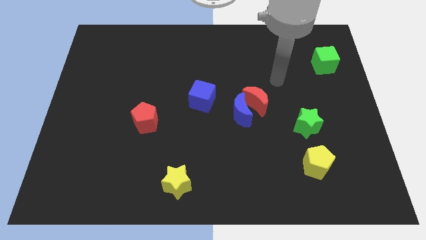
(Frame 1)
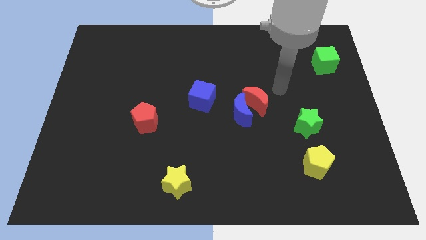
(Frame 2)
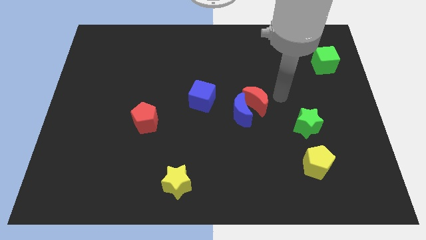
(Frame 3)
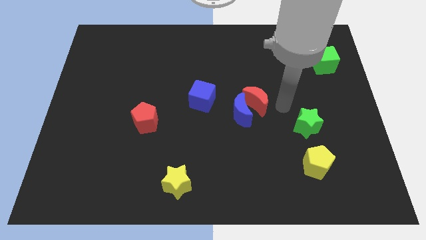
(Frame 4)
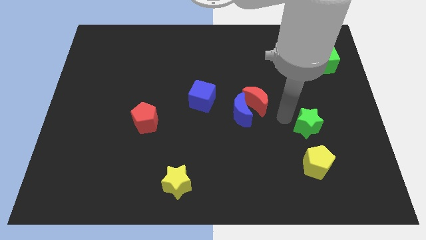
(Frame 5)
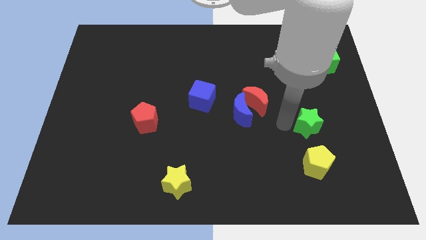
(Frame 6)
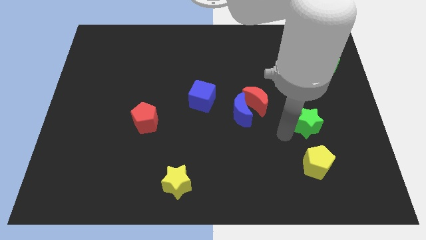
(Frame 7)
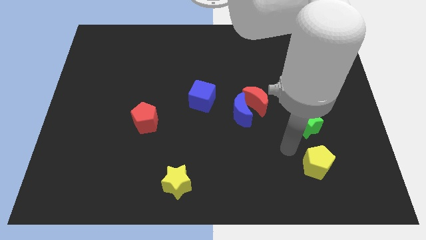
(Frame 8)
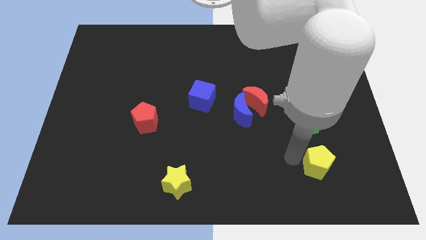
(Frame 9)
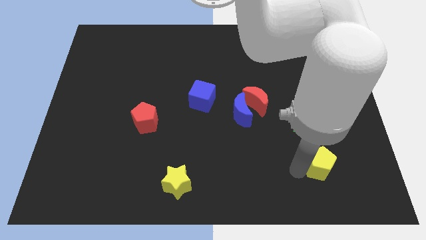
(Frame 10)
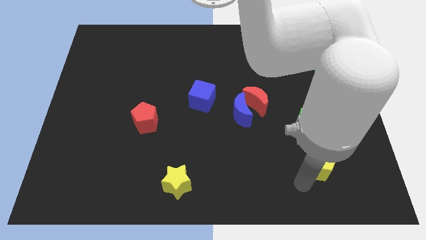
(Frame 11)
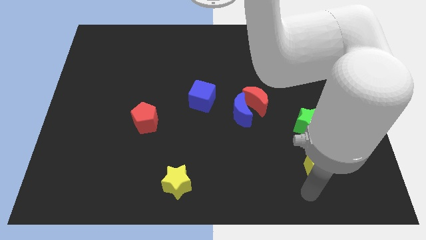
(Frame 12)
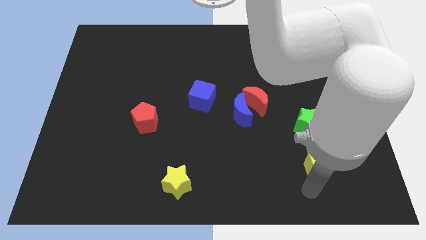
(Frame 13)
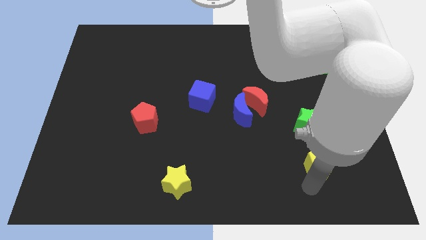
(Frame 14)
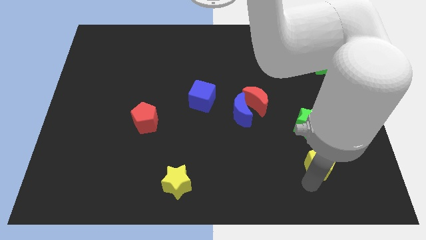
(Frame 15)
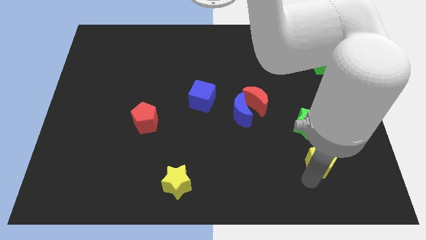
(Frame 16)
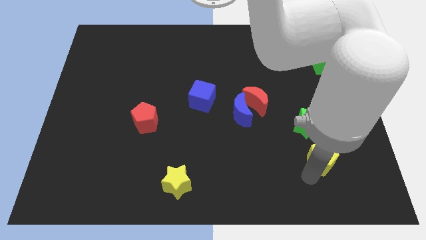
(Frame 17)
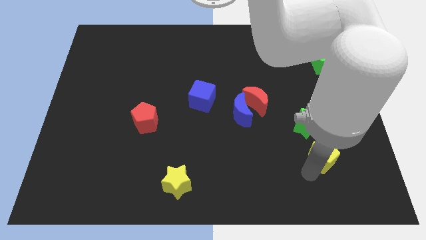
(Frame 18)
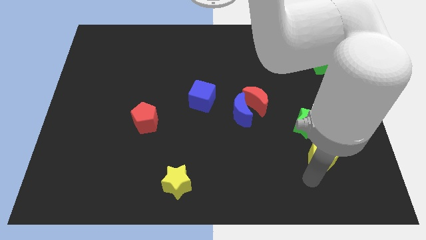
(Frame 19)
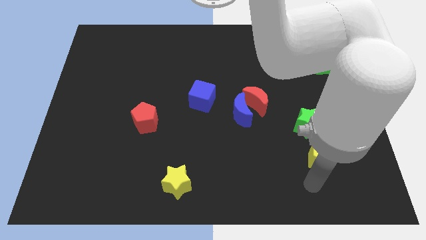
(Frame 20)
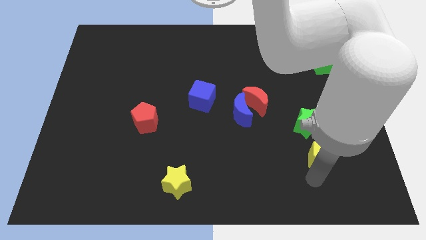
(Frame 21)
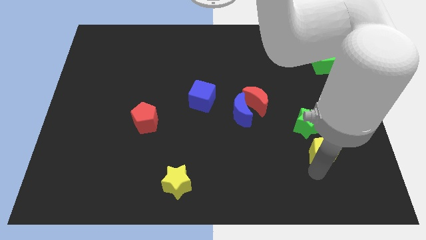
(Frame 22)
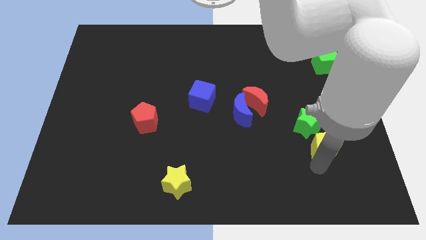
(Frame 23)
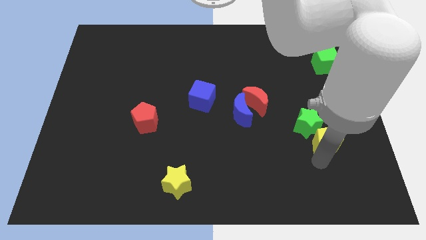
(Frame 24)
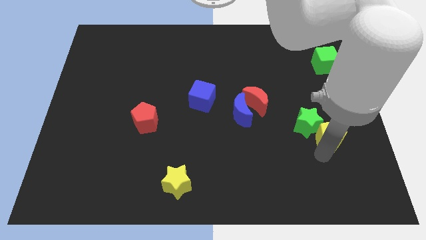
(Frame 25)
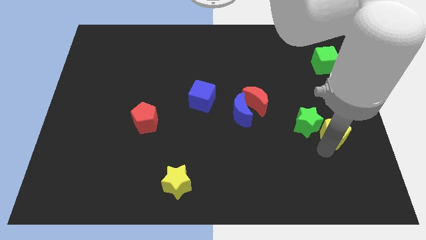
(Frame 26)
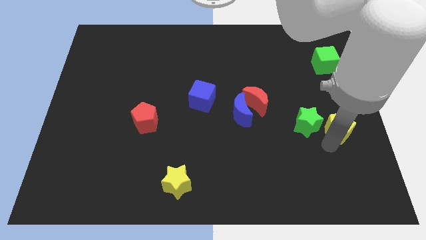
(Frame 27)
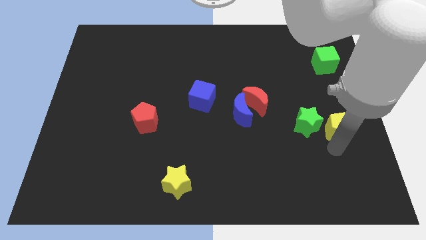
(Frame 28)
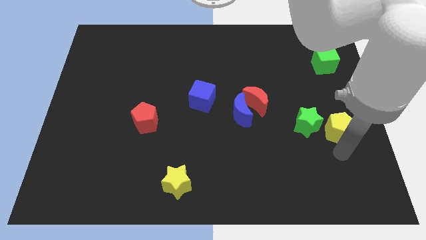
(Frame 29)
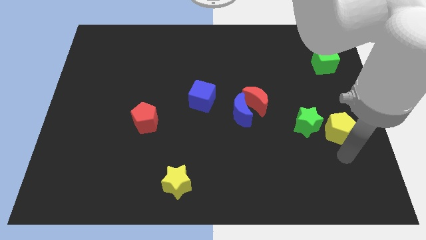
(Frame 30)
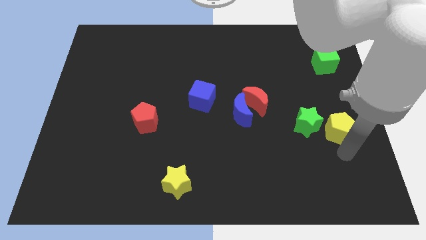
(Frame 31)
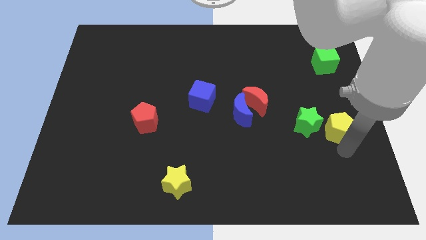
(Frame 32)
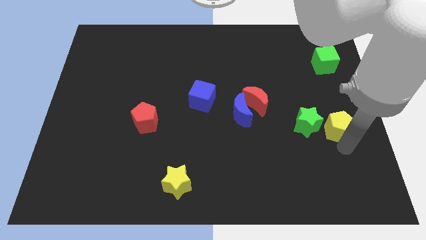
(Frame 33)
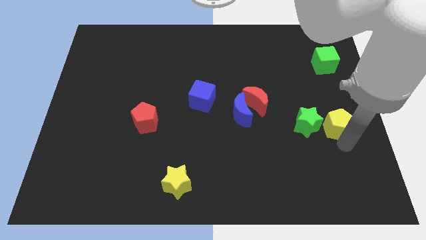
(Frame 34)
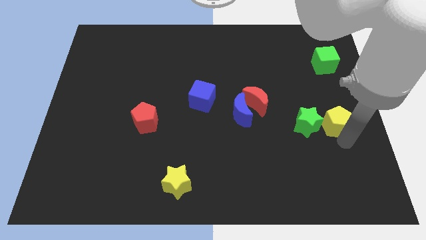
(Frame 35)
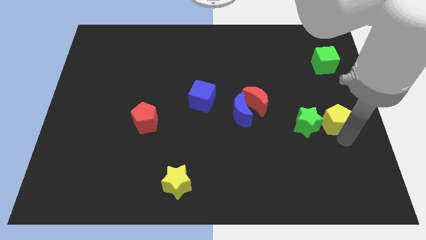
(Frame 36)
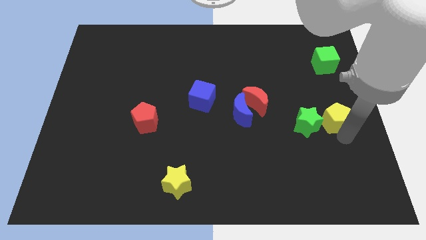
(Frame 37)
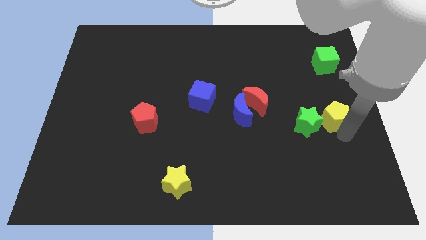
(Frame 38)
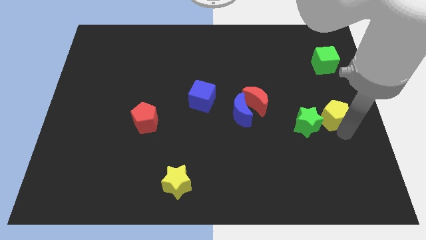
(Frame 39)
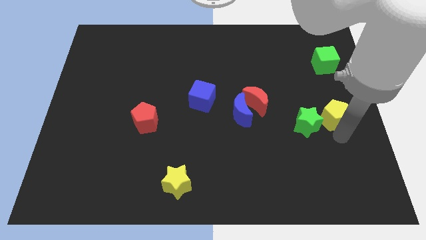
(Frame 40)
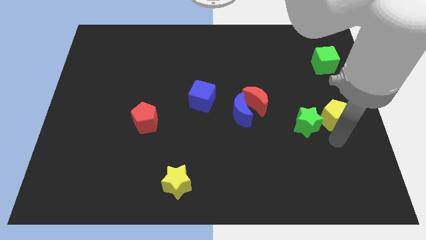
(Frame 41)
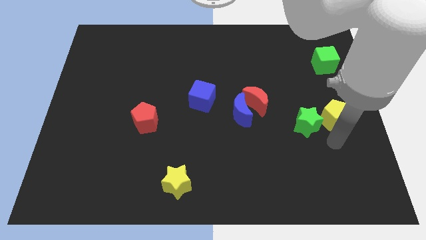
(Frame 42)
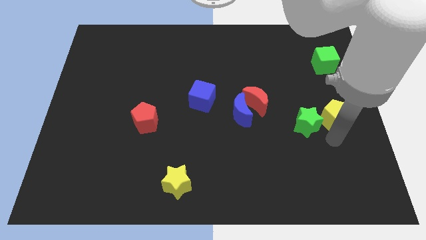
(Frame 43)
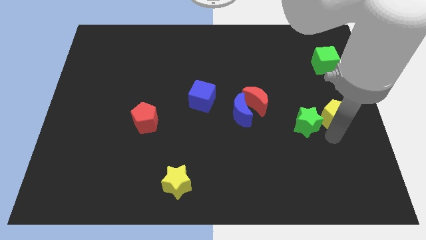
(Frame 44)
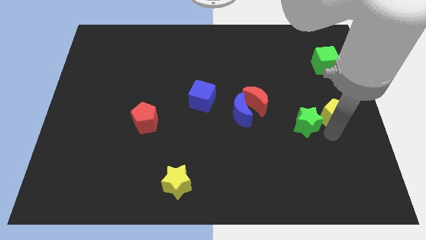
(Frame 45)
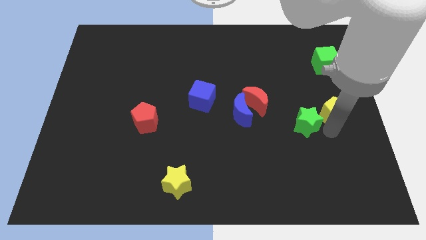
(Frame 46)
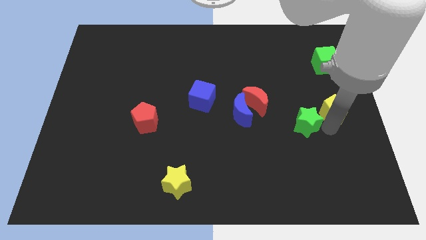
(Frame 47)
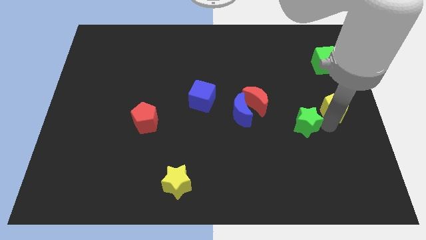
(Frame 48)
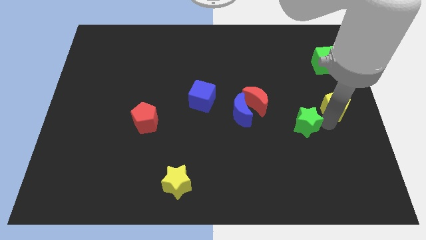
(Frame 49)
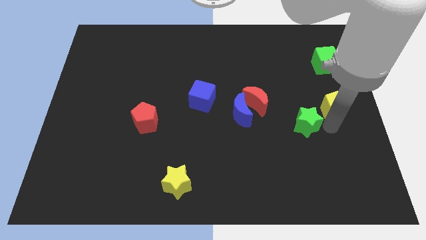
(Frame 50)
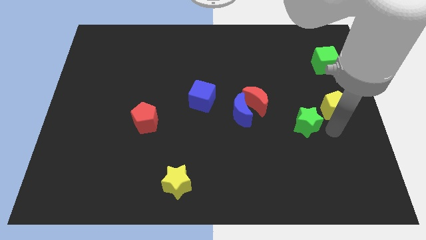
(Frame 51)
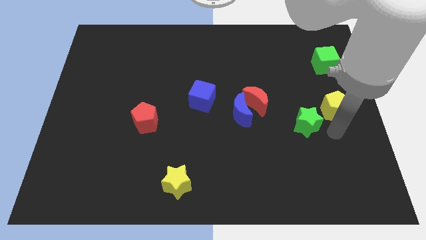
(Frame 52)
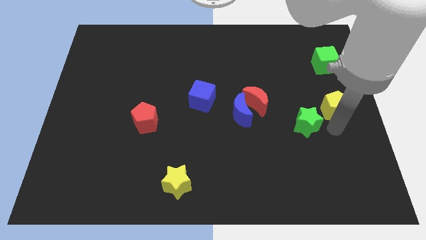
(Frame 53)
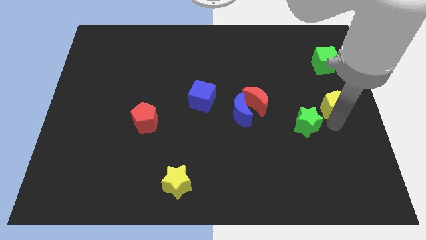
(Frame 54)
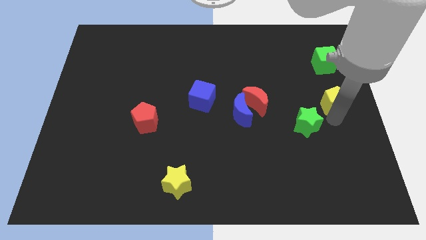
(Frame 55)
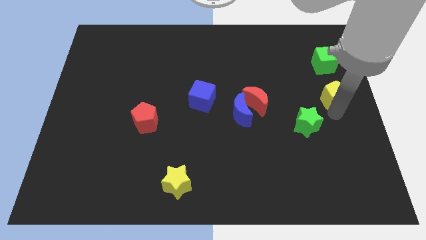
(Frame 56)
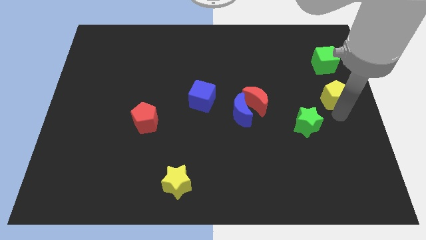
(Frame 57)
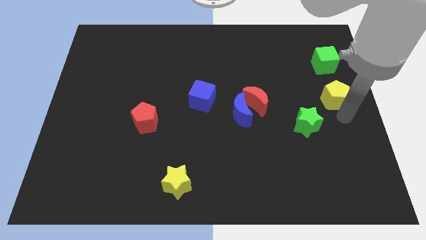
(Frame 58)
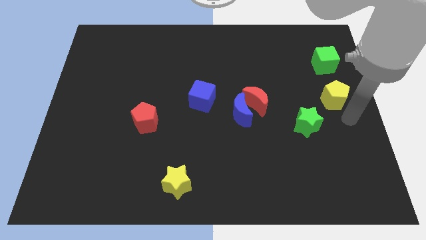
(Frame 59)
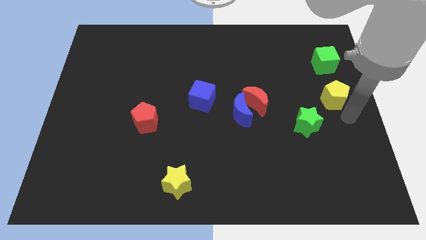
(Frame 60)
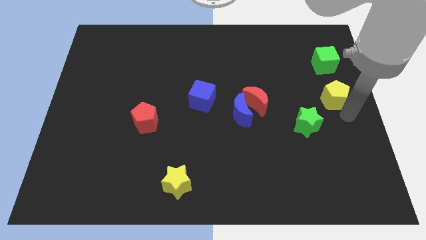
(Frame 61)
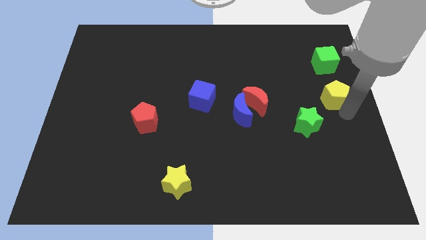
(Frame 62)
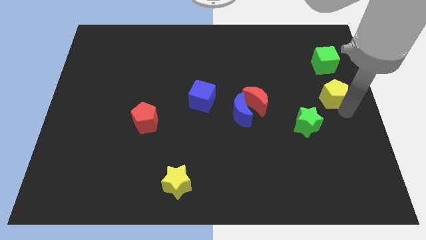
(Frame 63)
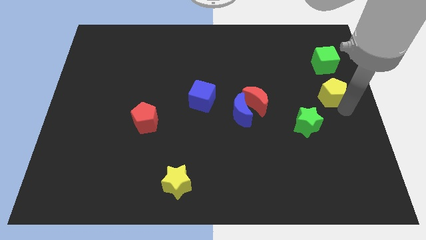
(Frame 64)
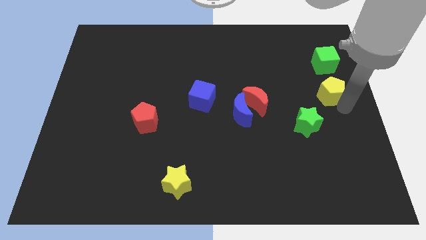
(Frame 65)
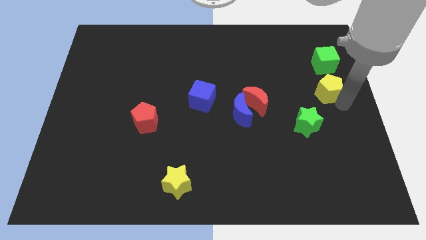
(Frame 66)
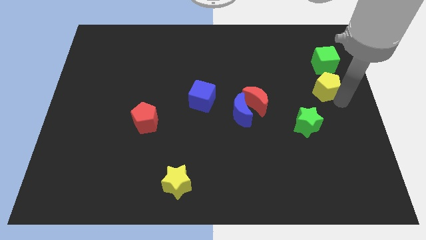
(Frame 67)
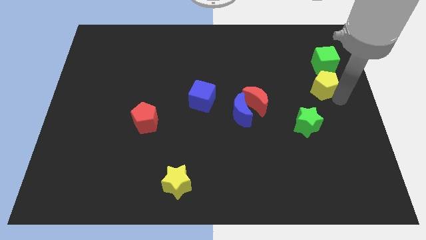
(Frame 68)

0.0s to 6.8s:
move the yellow pentagon up

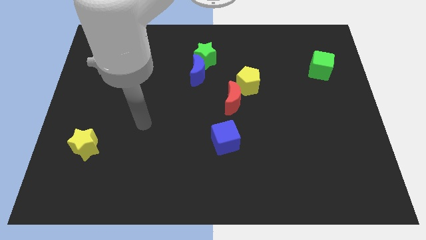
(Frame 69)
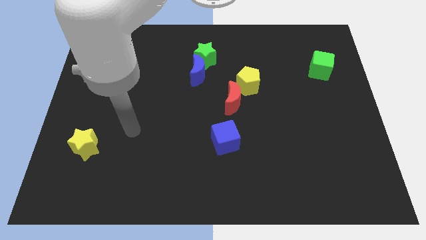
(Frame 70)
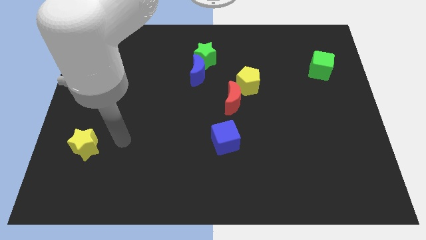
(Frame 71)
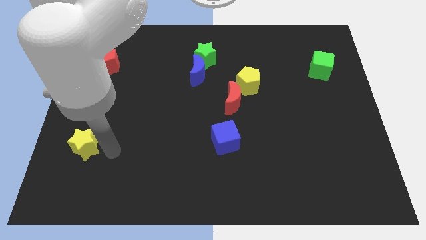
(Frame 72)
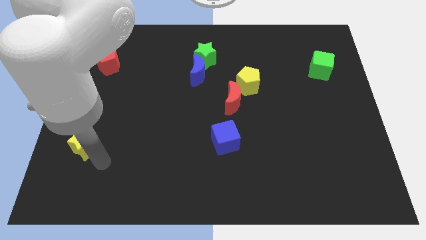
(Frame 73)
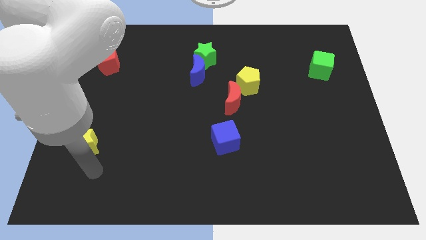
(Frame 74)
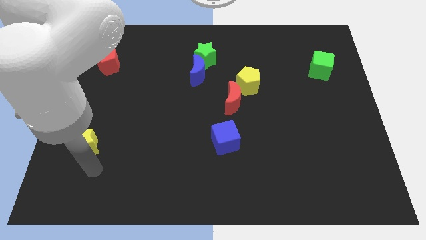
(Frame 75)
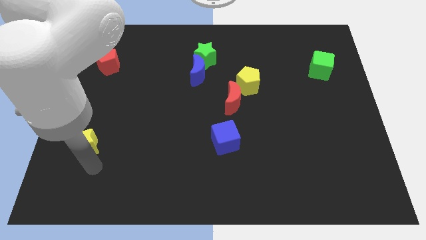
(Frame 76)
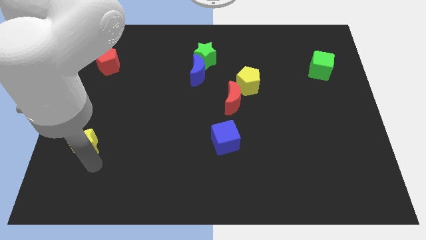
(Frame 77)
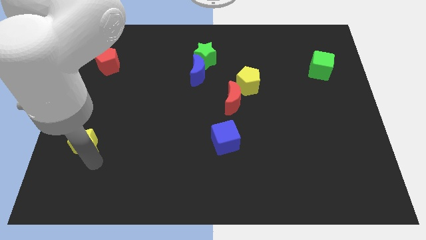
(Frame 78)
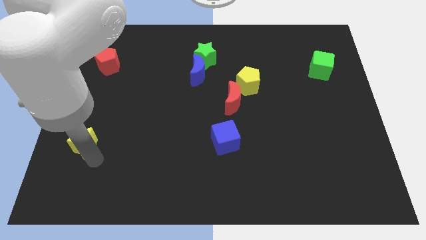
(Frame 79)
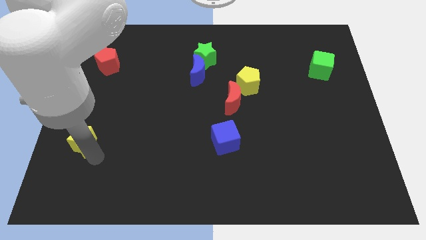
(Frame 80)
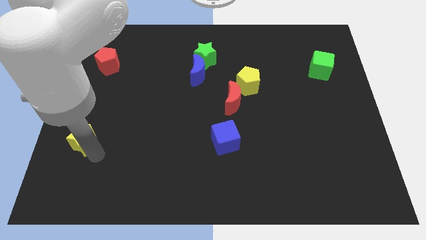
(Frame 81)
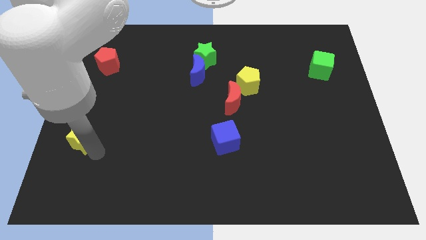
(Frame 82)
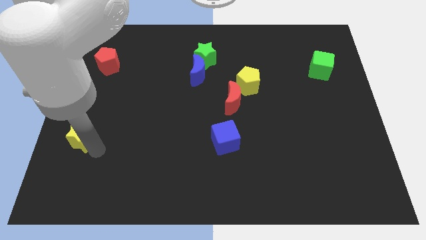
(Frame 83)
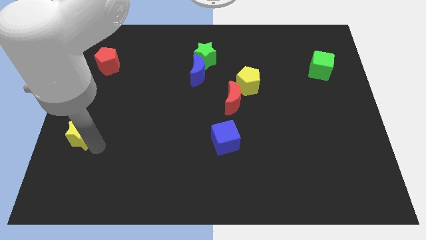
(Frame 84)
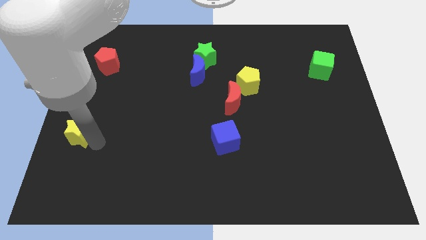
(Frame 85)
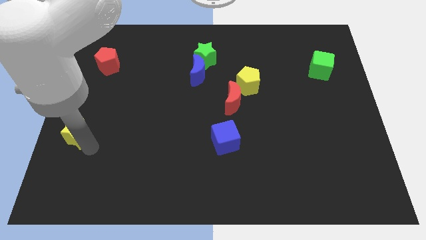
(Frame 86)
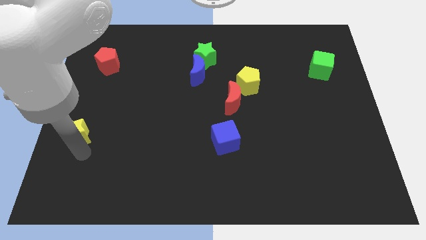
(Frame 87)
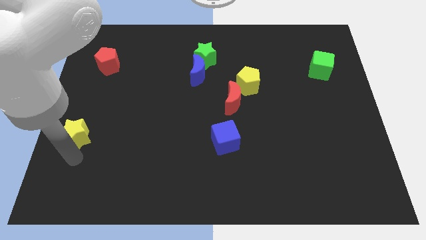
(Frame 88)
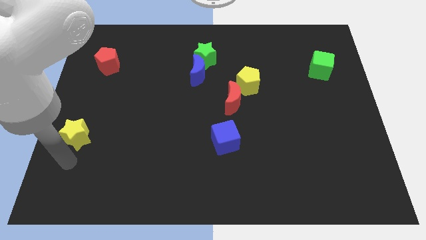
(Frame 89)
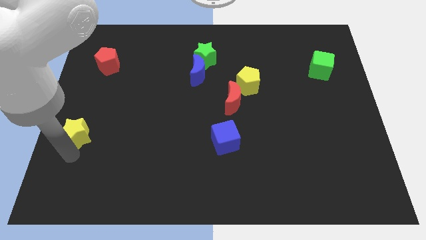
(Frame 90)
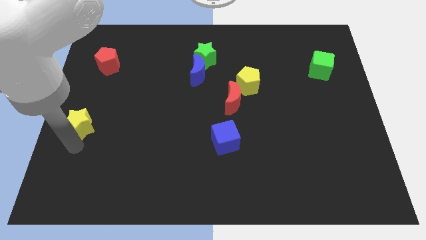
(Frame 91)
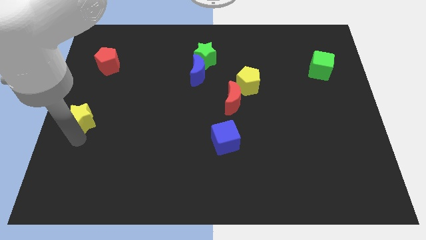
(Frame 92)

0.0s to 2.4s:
slightly slide the yellow star upwards
